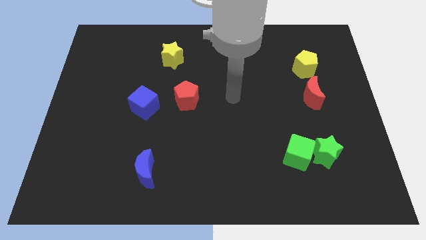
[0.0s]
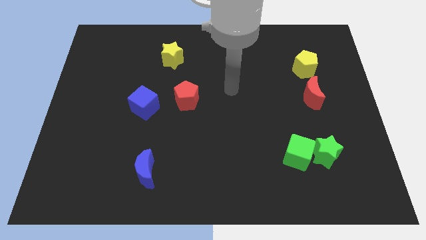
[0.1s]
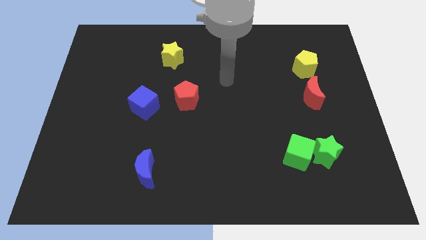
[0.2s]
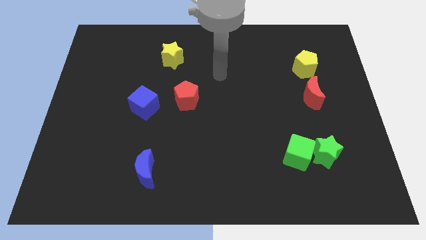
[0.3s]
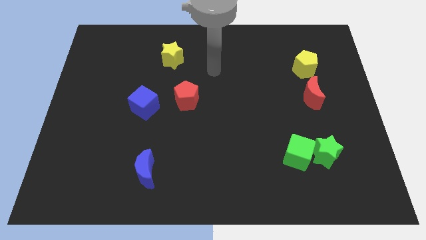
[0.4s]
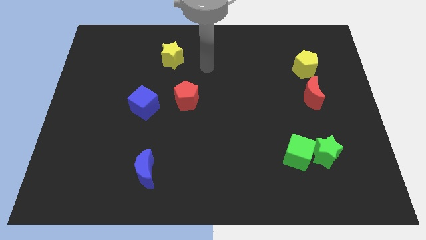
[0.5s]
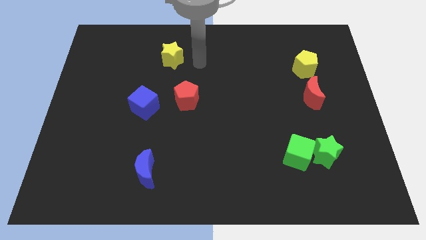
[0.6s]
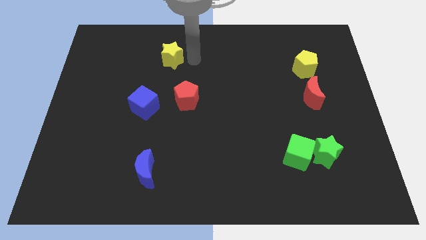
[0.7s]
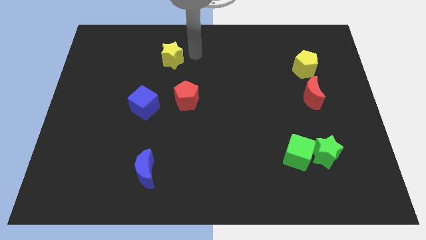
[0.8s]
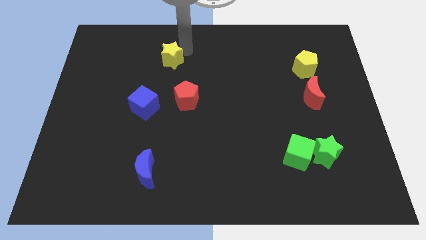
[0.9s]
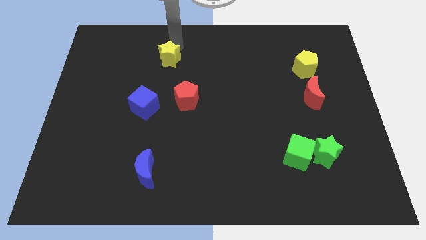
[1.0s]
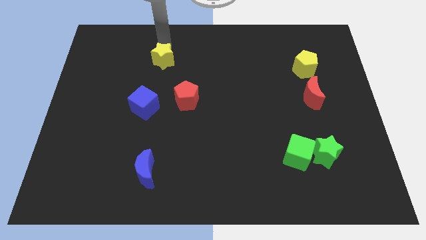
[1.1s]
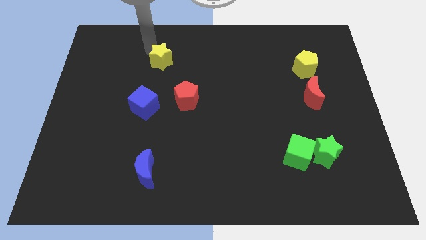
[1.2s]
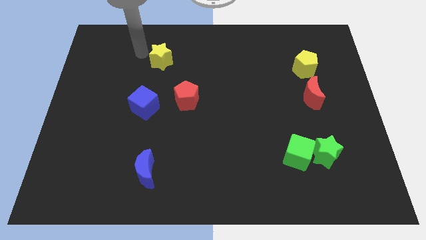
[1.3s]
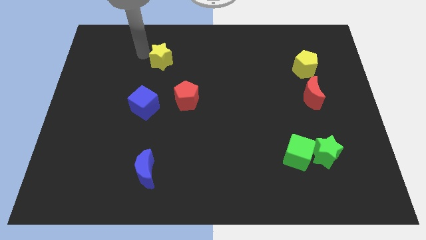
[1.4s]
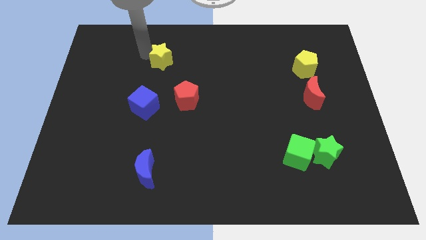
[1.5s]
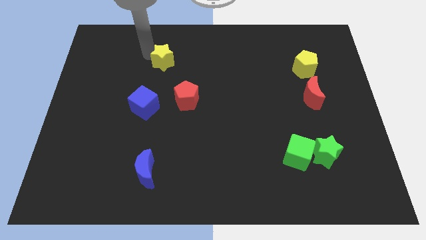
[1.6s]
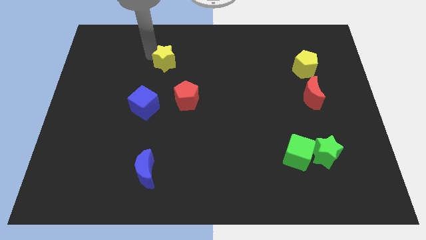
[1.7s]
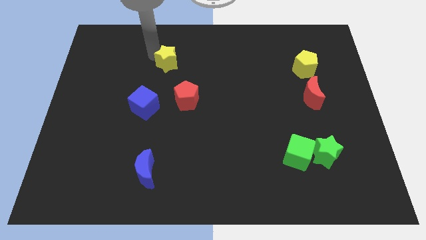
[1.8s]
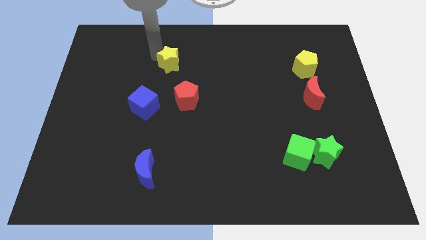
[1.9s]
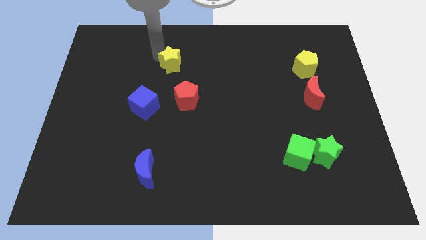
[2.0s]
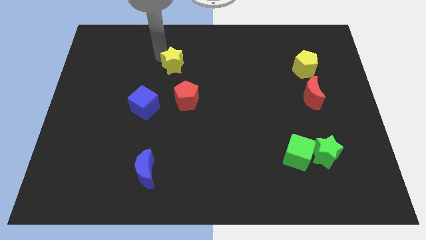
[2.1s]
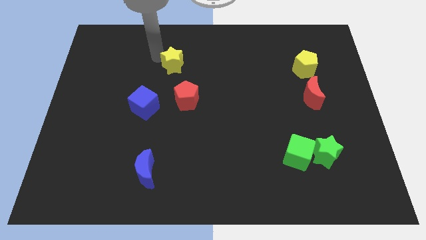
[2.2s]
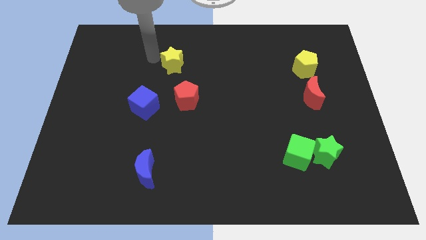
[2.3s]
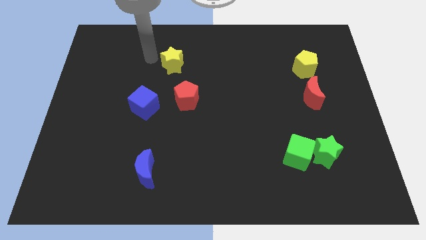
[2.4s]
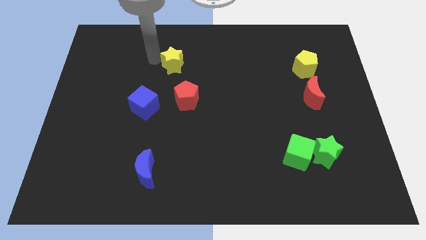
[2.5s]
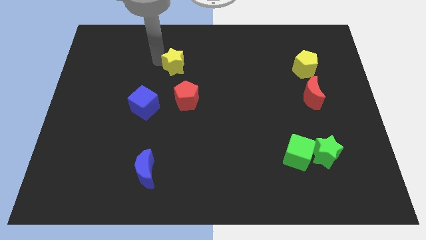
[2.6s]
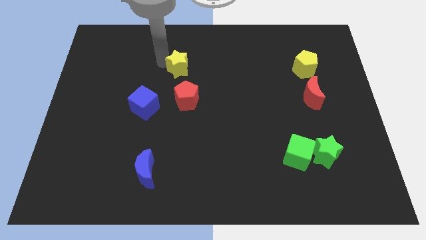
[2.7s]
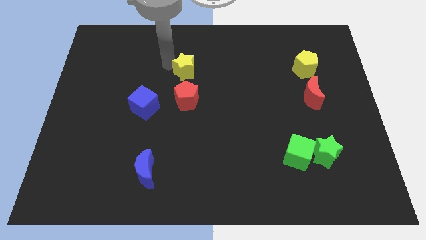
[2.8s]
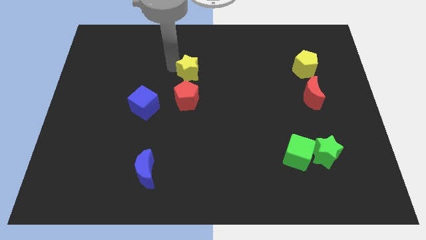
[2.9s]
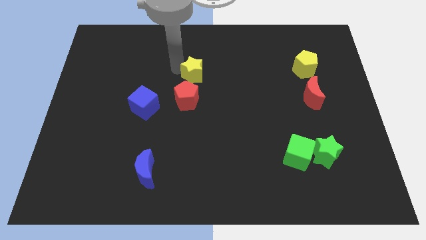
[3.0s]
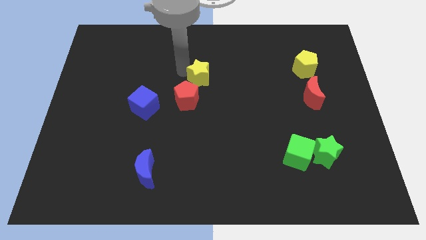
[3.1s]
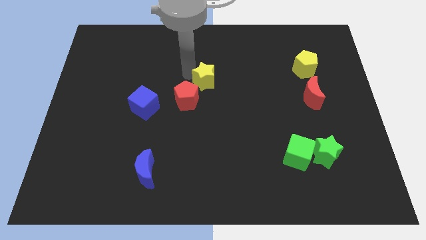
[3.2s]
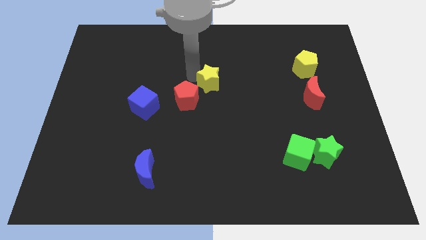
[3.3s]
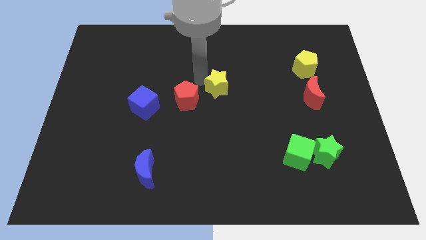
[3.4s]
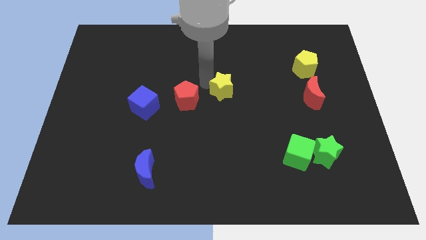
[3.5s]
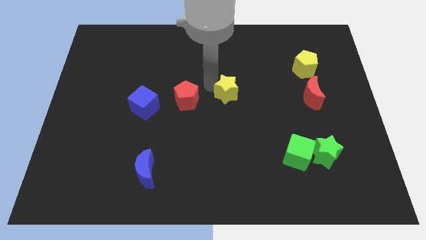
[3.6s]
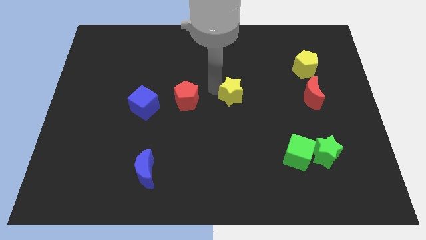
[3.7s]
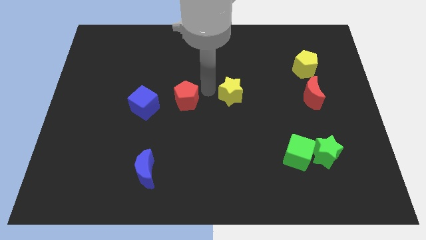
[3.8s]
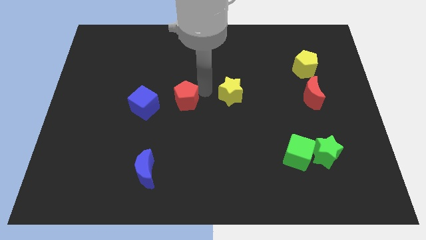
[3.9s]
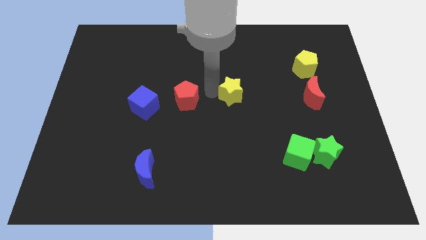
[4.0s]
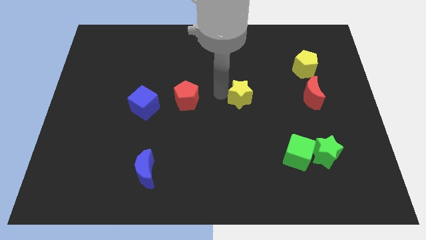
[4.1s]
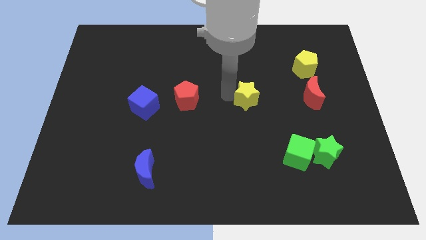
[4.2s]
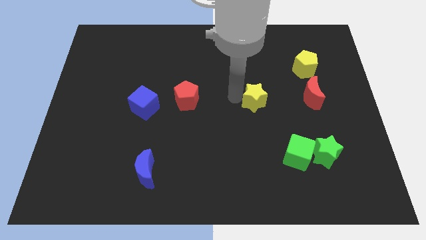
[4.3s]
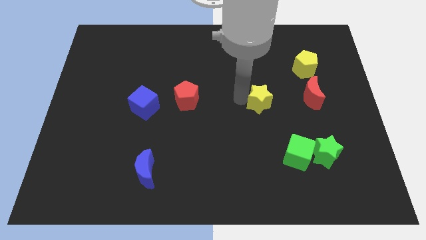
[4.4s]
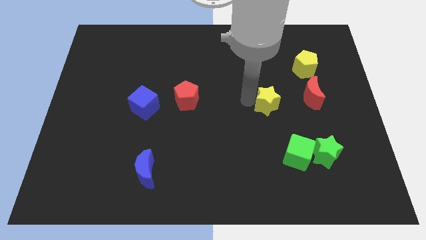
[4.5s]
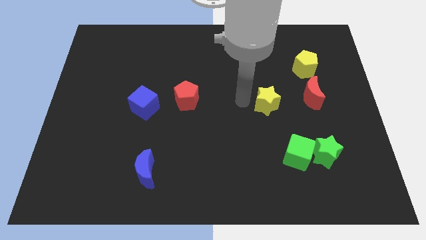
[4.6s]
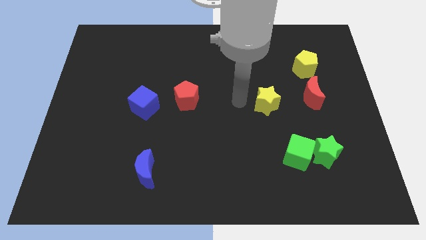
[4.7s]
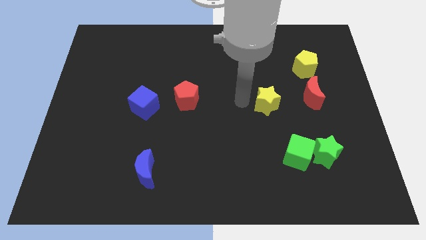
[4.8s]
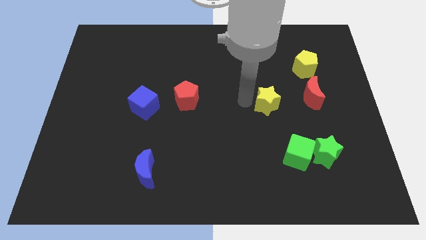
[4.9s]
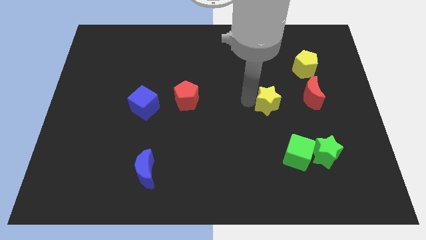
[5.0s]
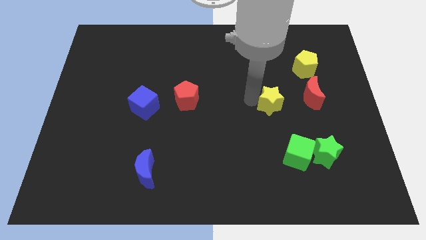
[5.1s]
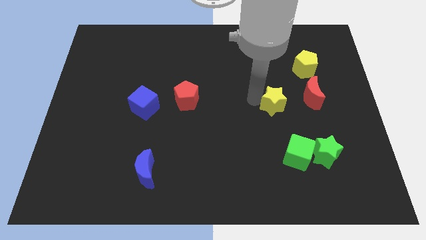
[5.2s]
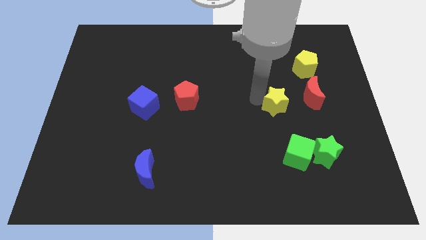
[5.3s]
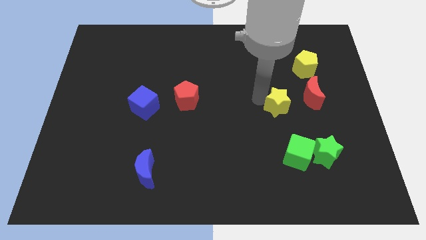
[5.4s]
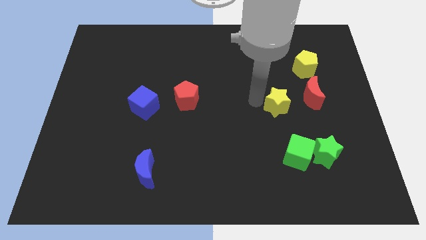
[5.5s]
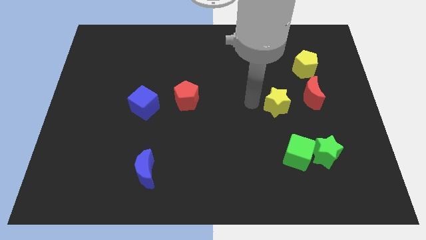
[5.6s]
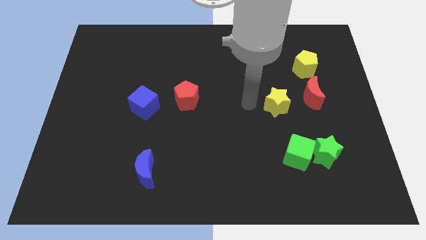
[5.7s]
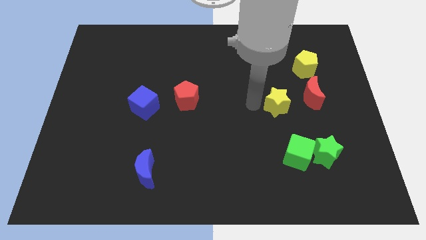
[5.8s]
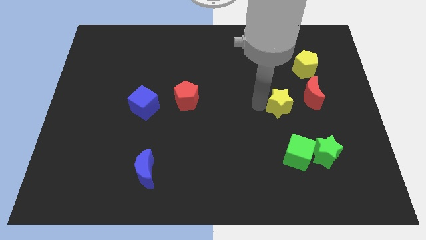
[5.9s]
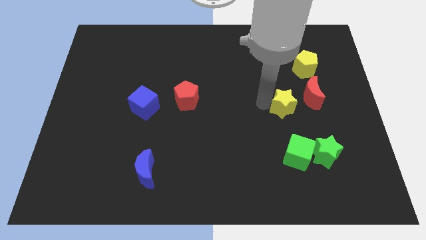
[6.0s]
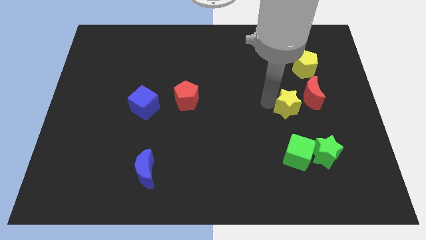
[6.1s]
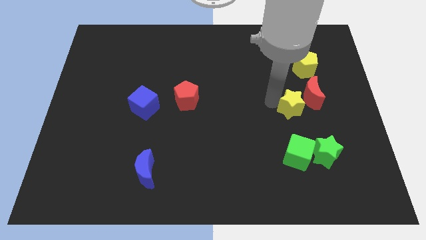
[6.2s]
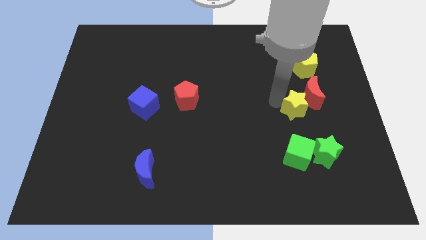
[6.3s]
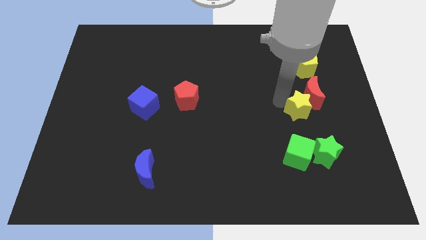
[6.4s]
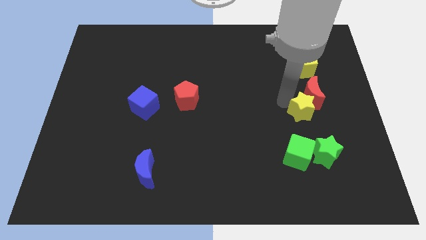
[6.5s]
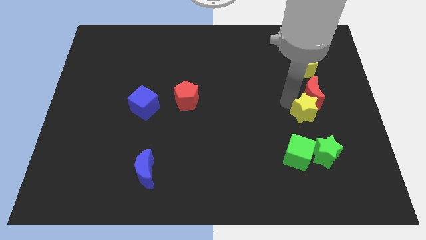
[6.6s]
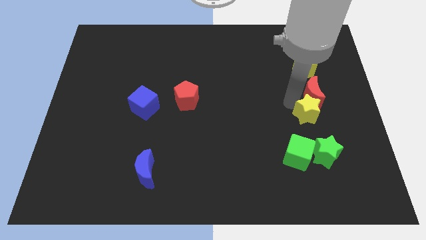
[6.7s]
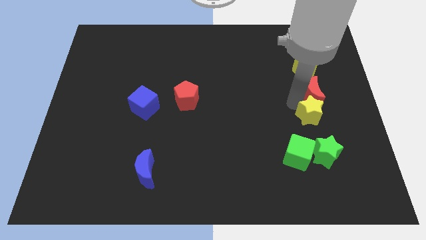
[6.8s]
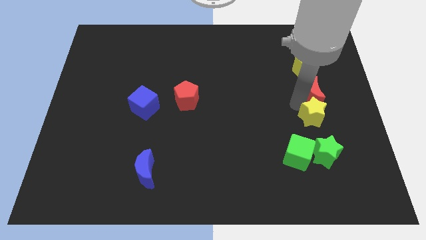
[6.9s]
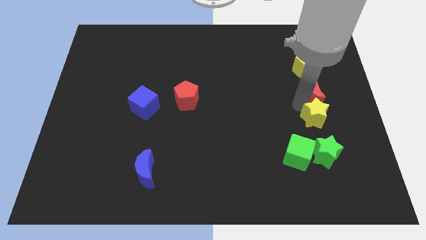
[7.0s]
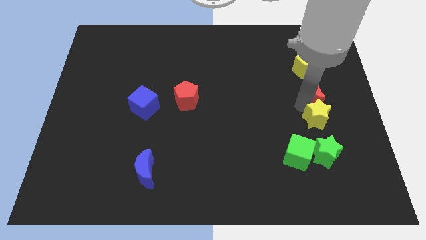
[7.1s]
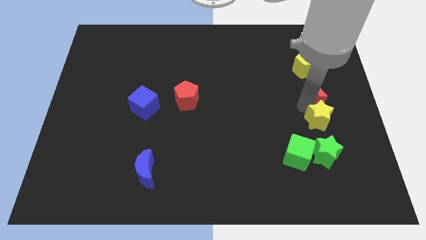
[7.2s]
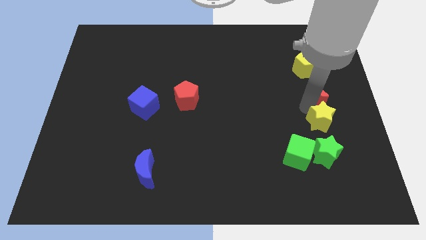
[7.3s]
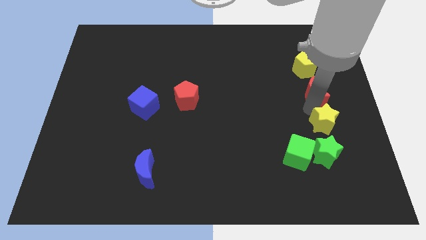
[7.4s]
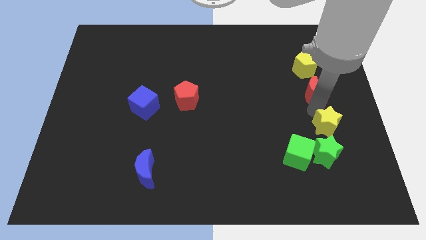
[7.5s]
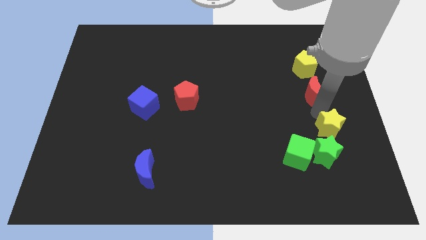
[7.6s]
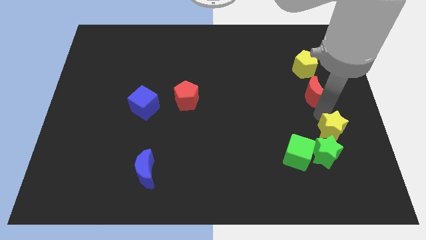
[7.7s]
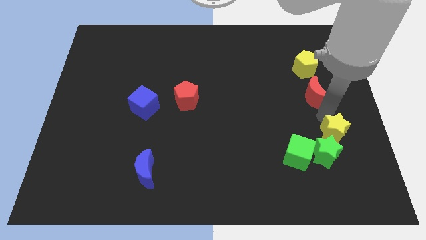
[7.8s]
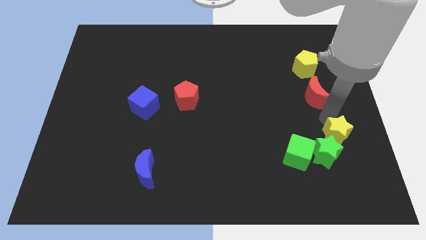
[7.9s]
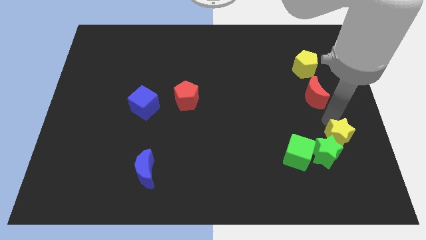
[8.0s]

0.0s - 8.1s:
push the yellow star right of the green cube
